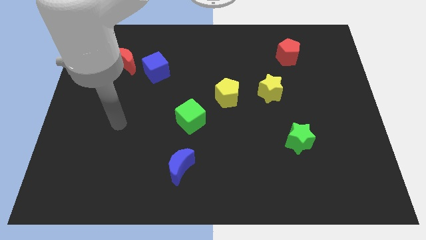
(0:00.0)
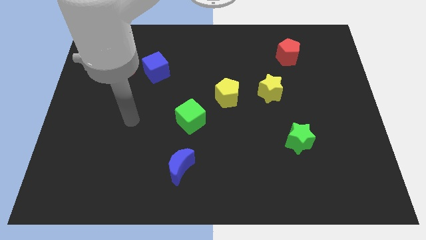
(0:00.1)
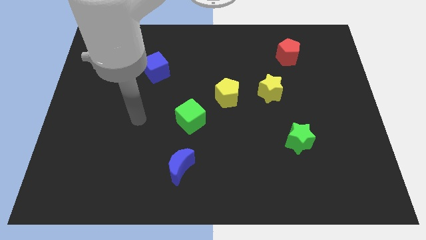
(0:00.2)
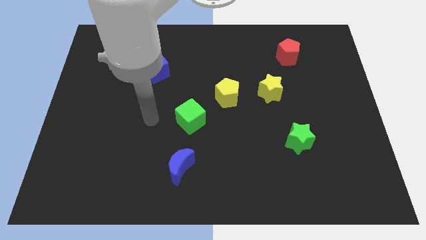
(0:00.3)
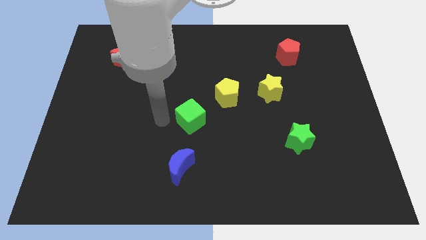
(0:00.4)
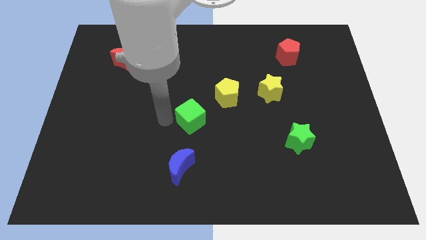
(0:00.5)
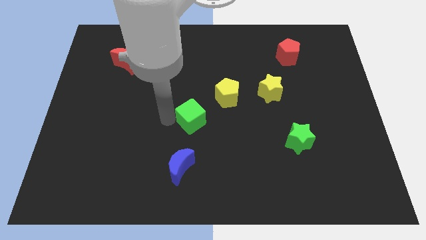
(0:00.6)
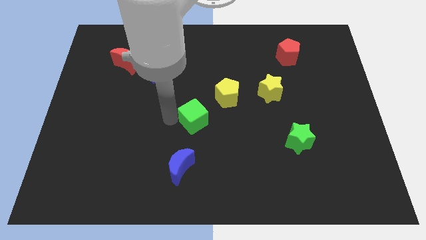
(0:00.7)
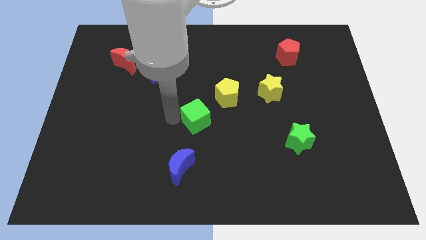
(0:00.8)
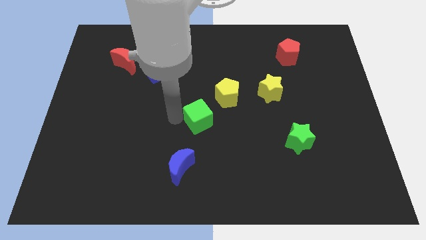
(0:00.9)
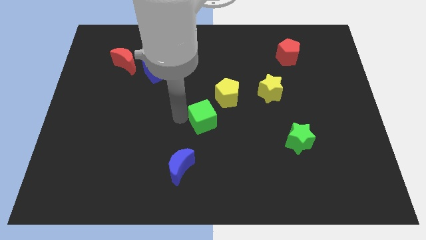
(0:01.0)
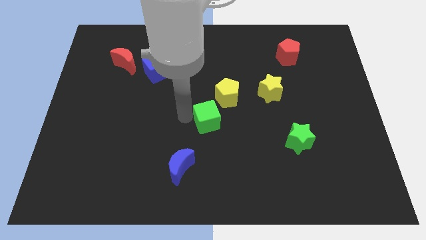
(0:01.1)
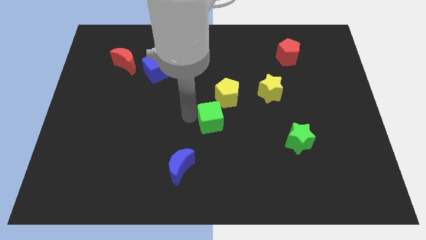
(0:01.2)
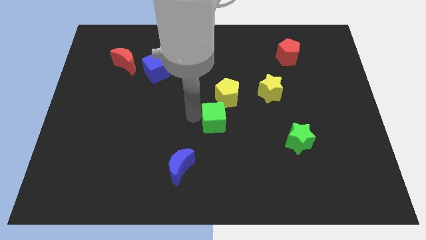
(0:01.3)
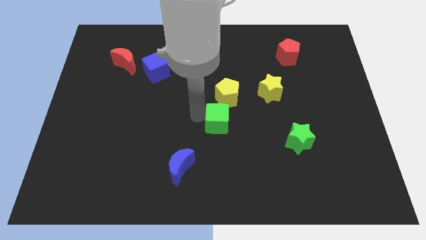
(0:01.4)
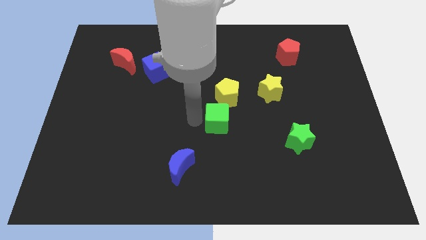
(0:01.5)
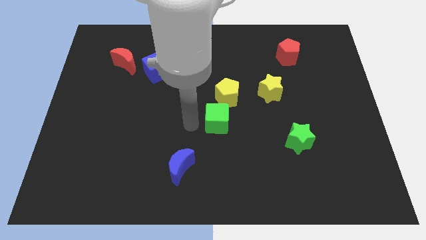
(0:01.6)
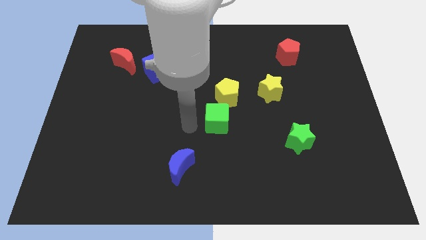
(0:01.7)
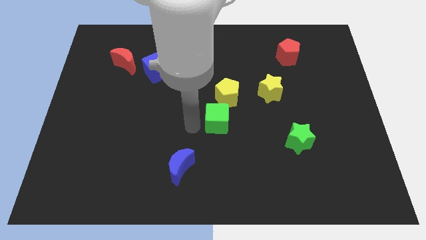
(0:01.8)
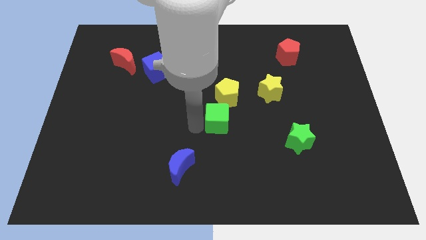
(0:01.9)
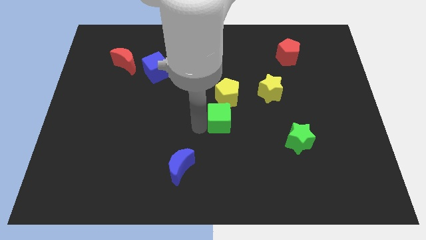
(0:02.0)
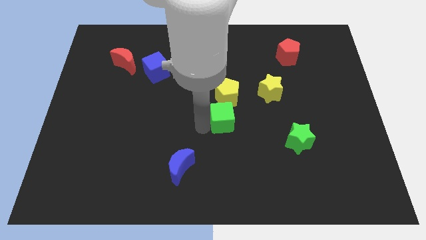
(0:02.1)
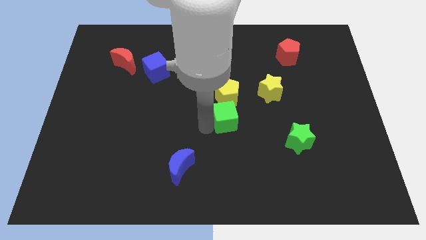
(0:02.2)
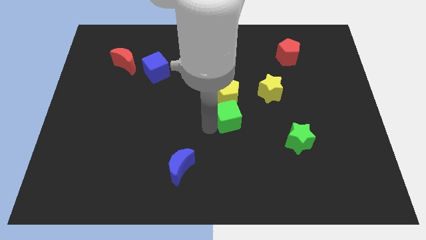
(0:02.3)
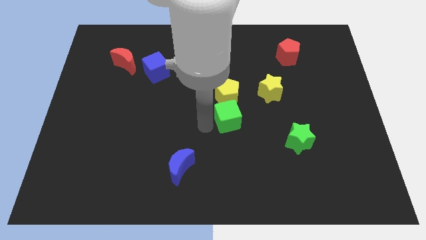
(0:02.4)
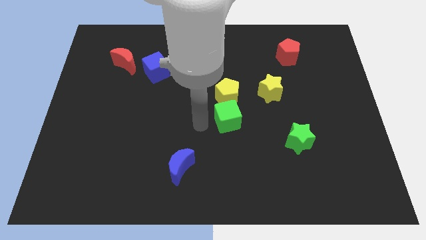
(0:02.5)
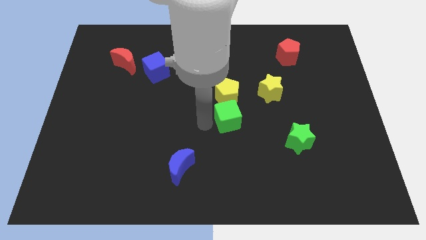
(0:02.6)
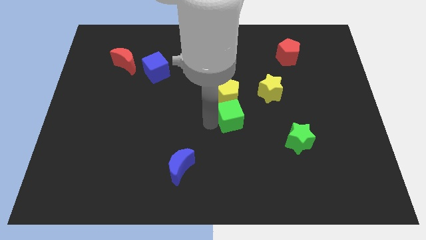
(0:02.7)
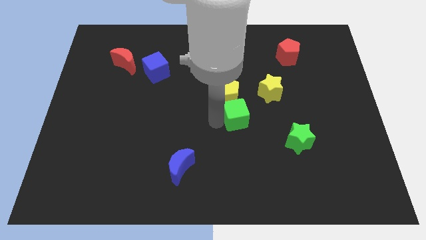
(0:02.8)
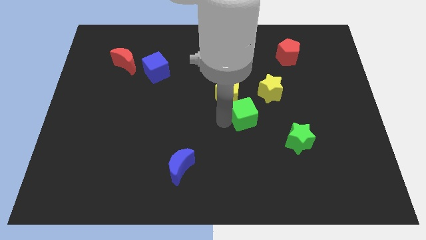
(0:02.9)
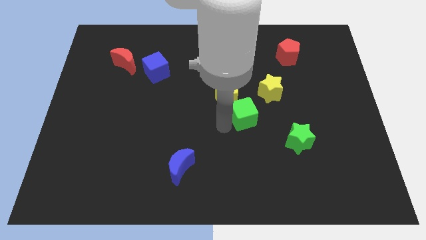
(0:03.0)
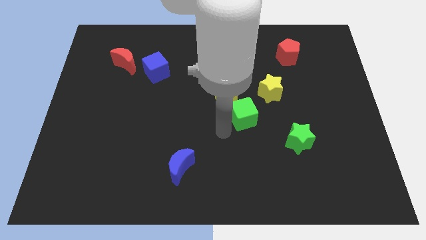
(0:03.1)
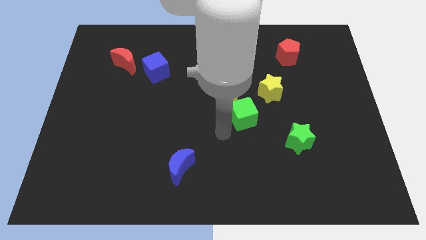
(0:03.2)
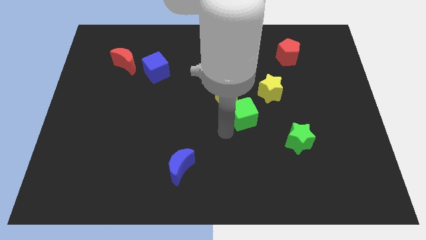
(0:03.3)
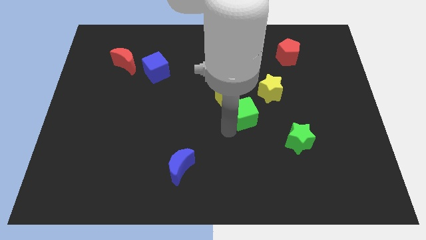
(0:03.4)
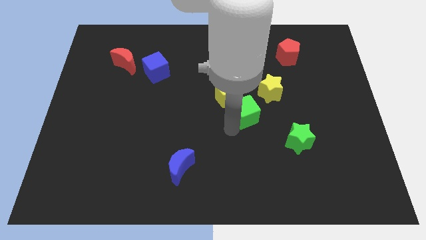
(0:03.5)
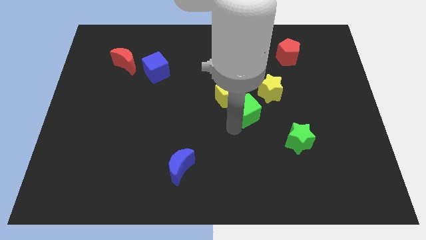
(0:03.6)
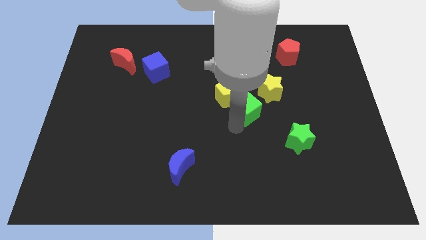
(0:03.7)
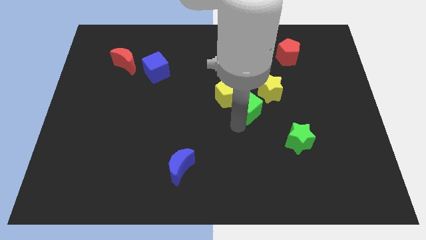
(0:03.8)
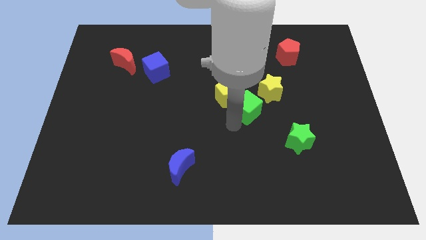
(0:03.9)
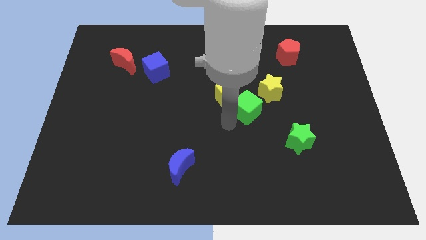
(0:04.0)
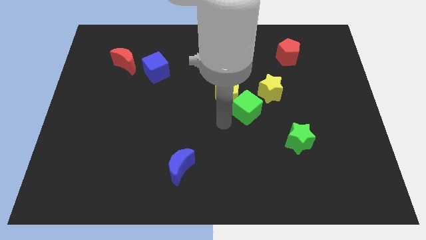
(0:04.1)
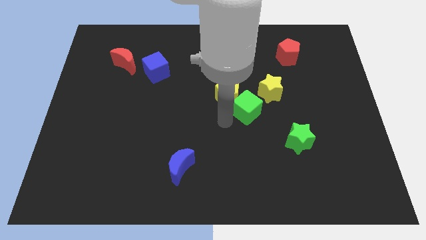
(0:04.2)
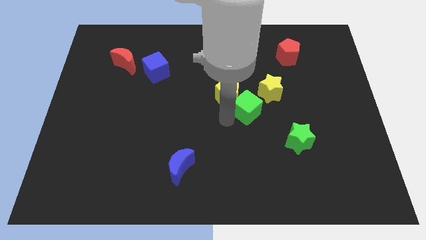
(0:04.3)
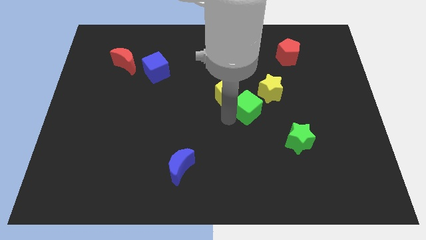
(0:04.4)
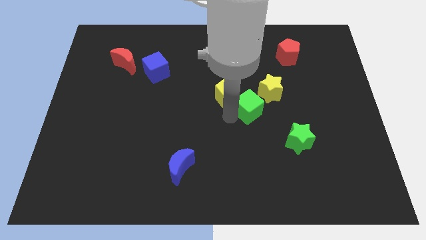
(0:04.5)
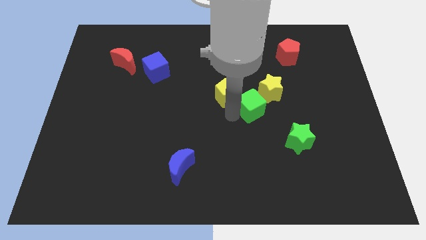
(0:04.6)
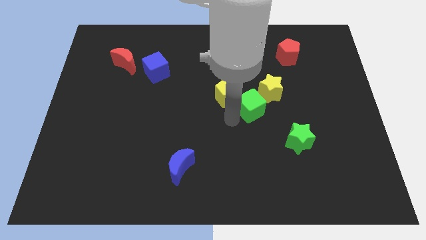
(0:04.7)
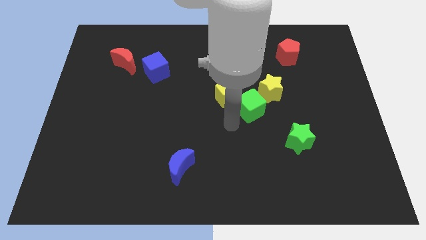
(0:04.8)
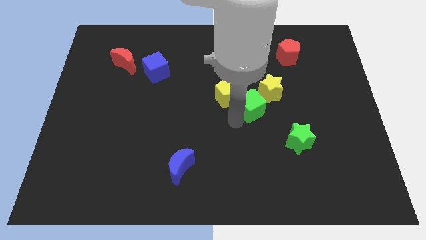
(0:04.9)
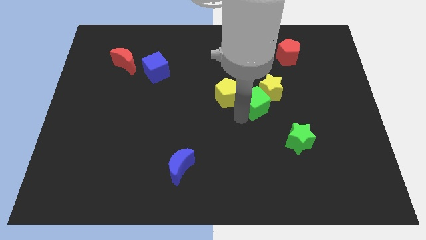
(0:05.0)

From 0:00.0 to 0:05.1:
move the green cube to the yellow star

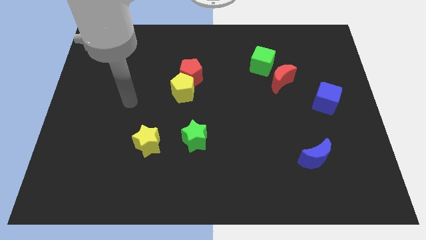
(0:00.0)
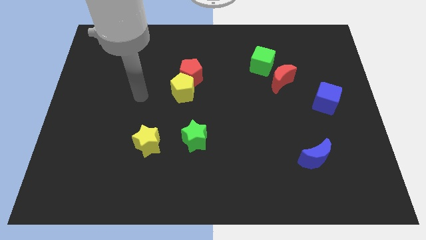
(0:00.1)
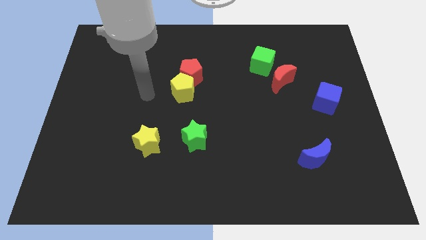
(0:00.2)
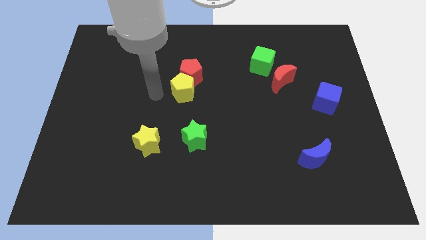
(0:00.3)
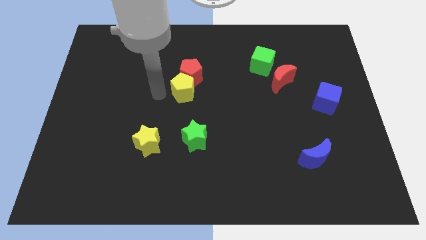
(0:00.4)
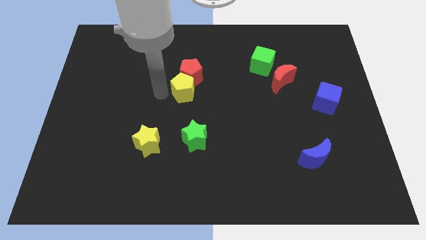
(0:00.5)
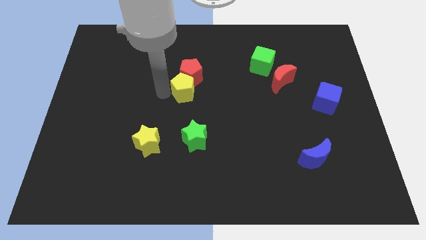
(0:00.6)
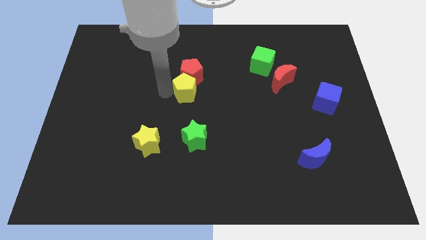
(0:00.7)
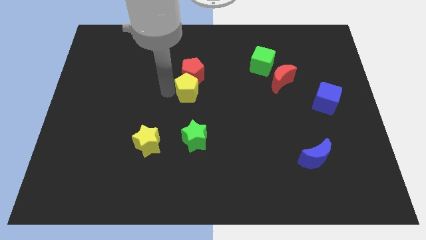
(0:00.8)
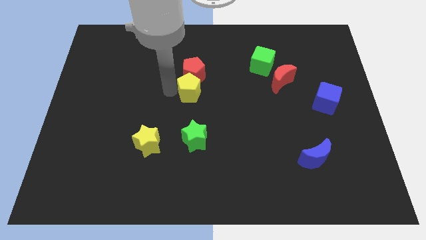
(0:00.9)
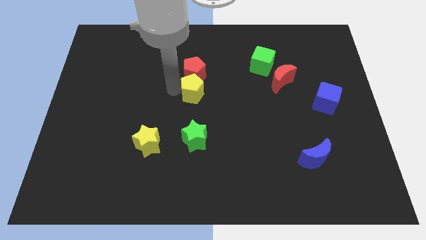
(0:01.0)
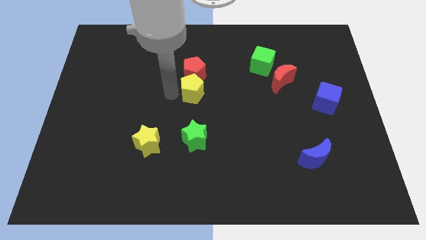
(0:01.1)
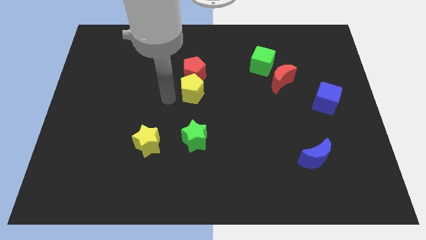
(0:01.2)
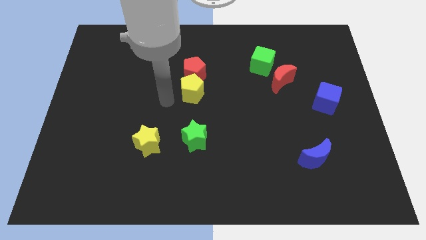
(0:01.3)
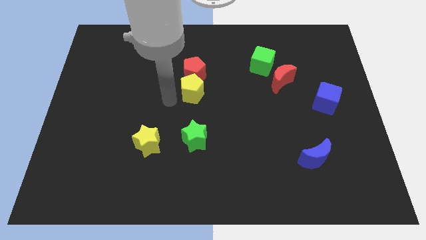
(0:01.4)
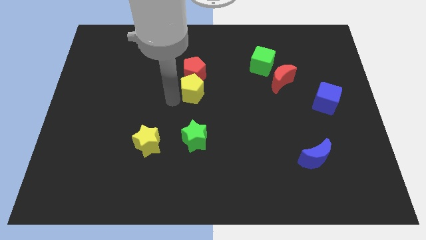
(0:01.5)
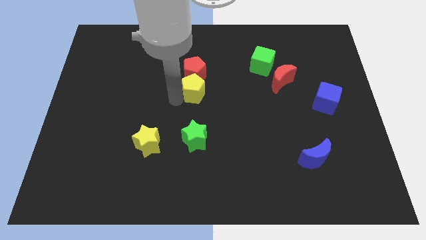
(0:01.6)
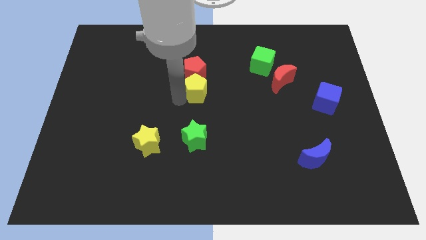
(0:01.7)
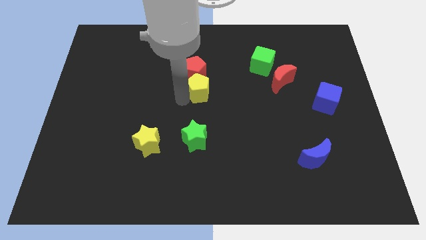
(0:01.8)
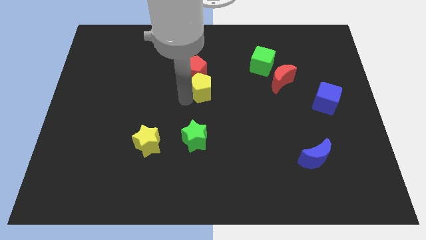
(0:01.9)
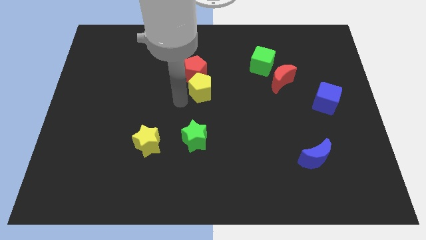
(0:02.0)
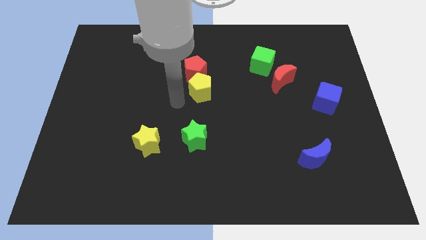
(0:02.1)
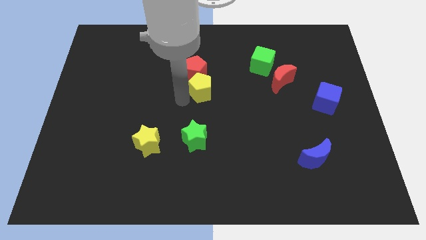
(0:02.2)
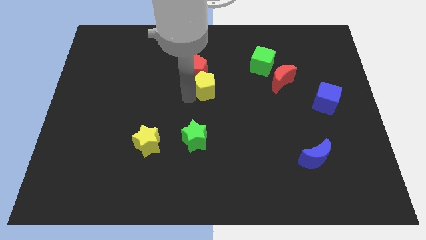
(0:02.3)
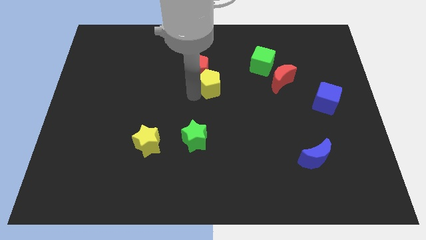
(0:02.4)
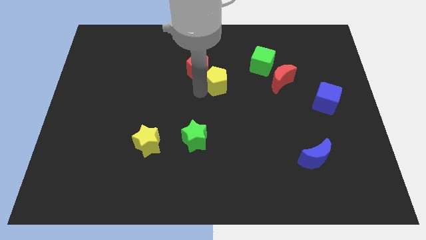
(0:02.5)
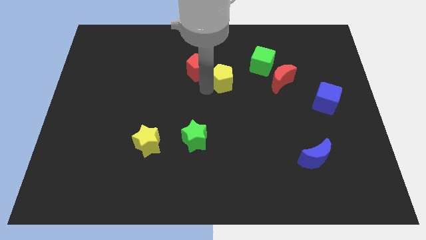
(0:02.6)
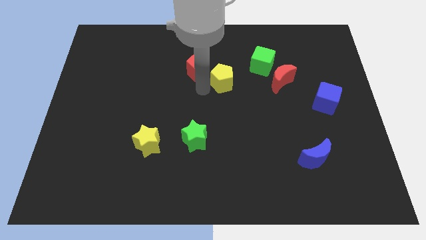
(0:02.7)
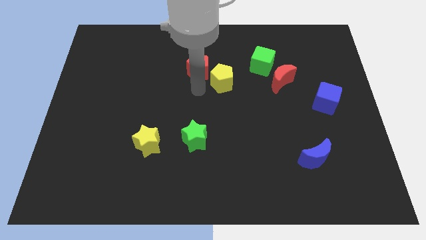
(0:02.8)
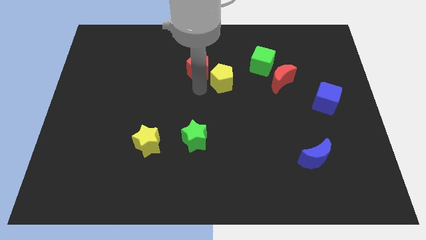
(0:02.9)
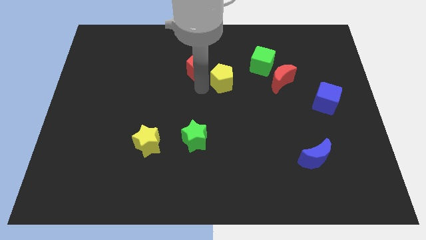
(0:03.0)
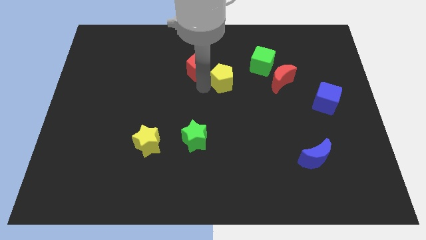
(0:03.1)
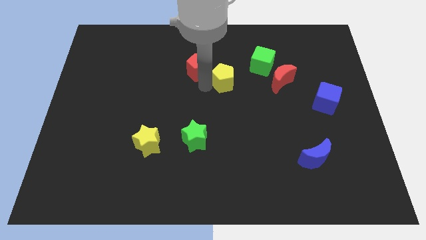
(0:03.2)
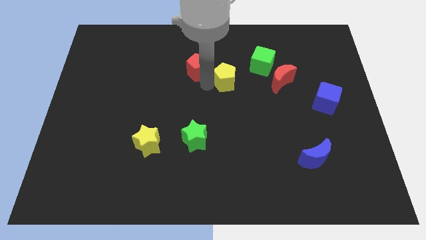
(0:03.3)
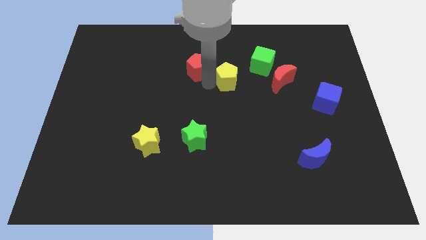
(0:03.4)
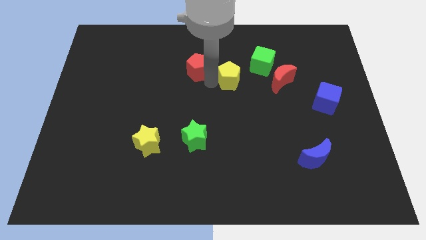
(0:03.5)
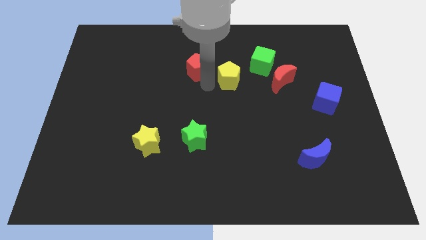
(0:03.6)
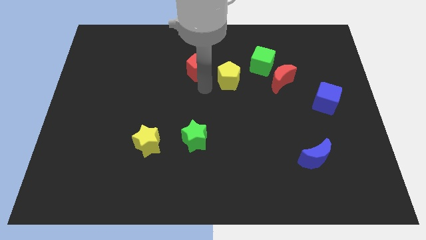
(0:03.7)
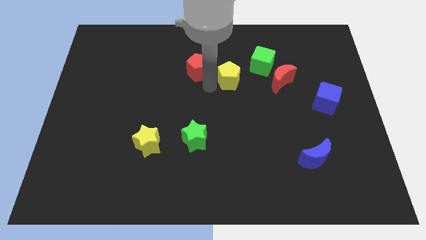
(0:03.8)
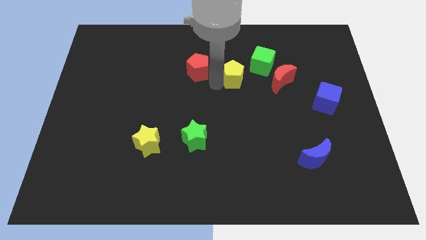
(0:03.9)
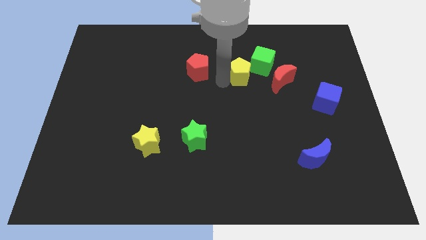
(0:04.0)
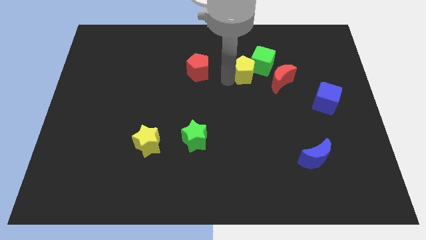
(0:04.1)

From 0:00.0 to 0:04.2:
push the yellow pentagon close to the green cube
